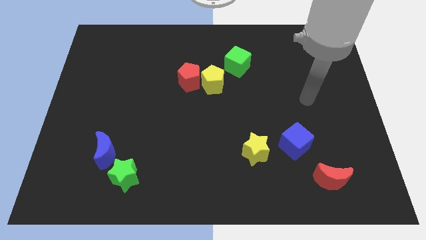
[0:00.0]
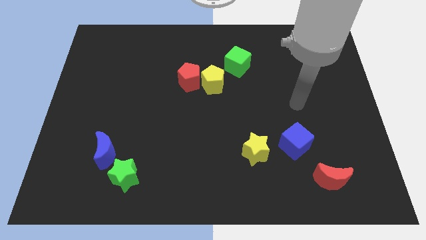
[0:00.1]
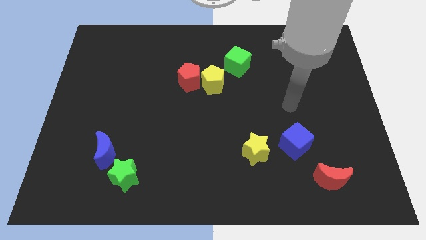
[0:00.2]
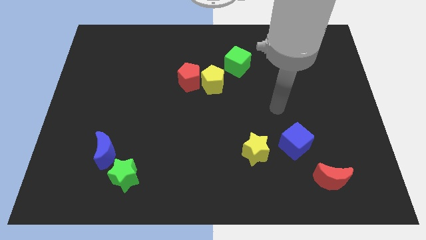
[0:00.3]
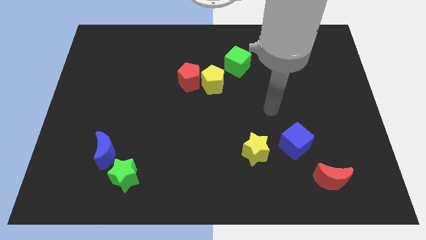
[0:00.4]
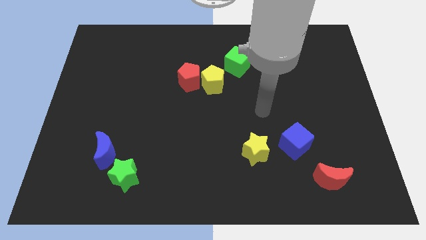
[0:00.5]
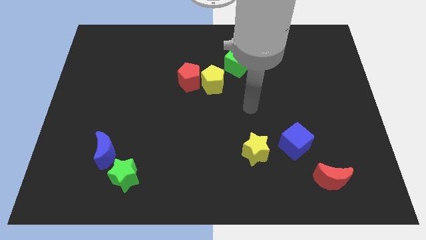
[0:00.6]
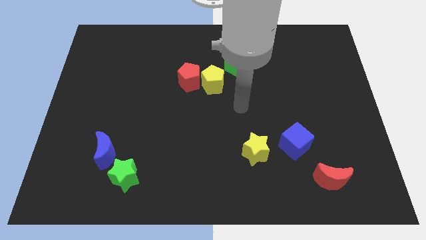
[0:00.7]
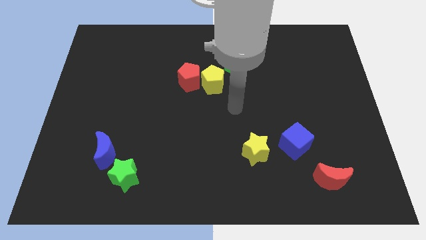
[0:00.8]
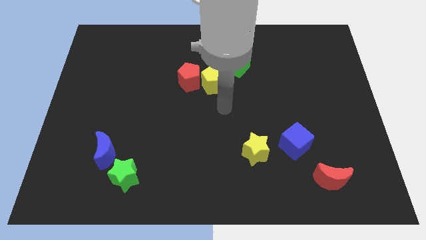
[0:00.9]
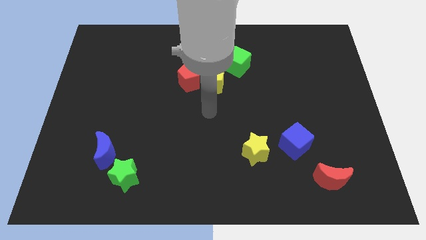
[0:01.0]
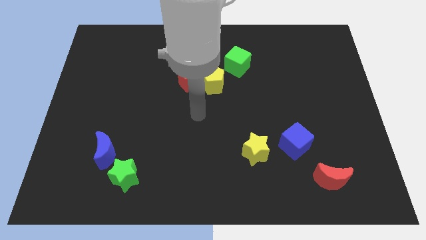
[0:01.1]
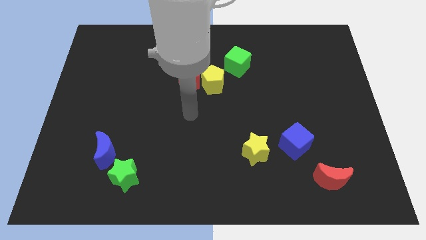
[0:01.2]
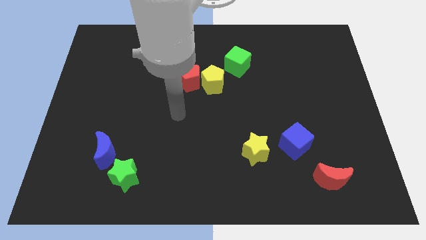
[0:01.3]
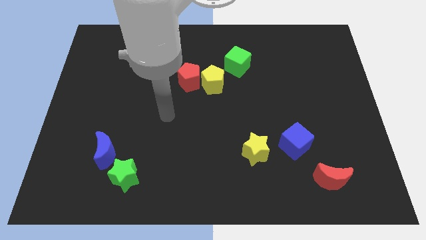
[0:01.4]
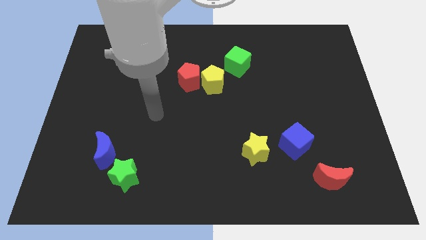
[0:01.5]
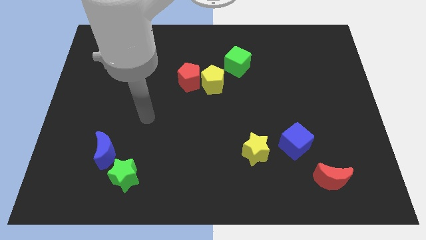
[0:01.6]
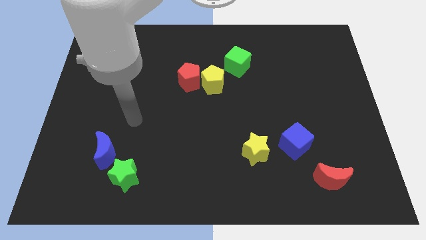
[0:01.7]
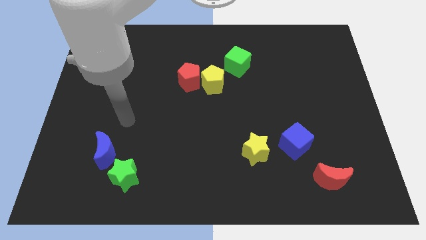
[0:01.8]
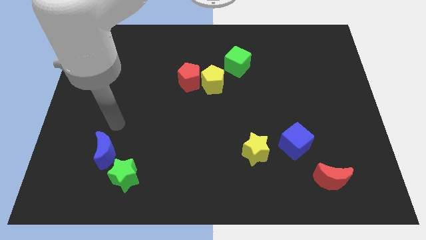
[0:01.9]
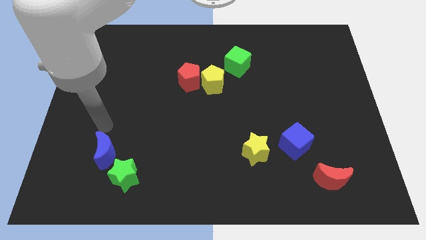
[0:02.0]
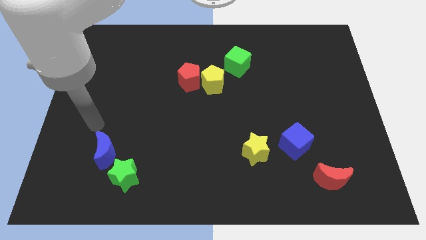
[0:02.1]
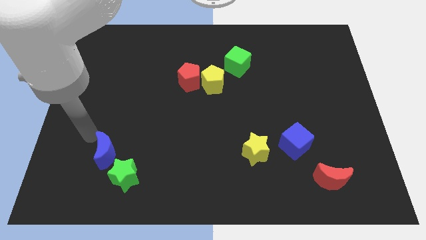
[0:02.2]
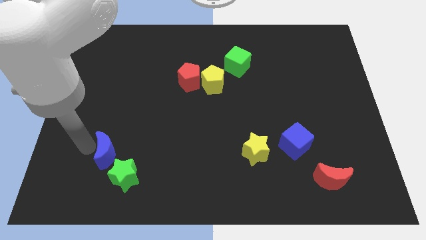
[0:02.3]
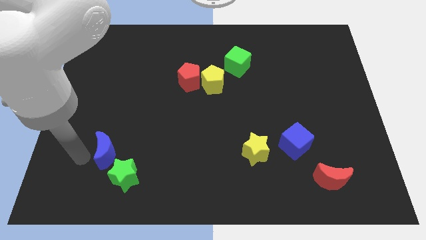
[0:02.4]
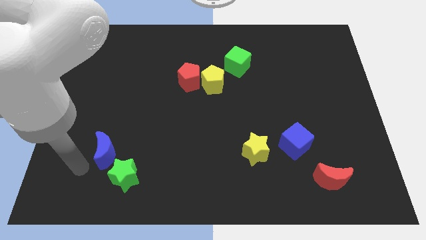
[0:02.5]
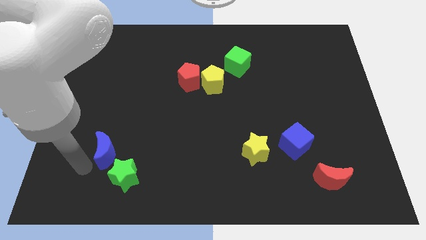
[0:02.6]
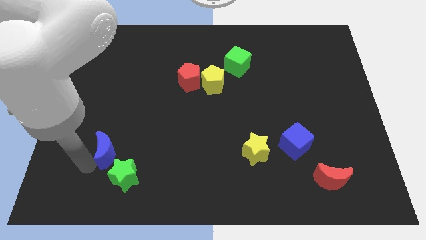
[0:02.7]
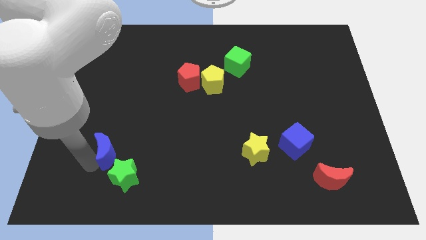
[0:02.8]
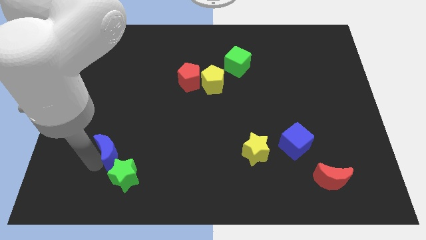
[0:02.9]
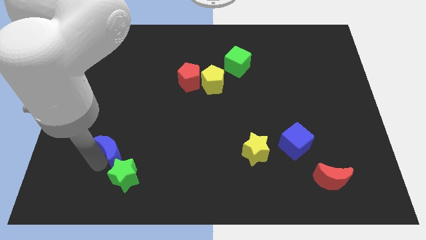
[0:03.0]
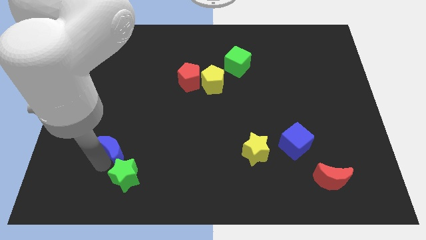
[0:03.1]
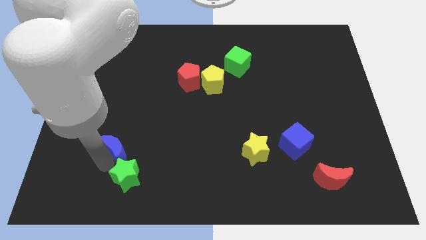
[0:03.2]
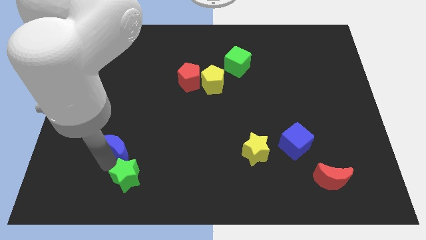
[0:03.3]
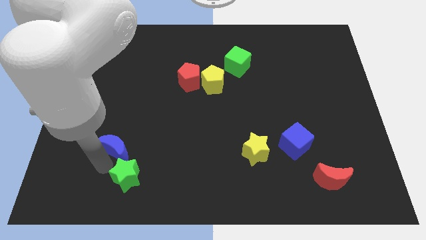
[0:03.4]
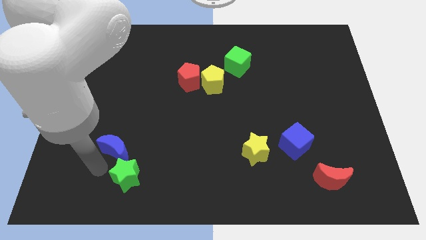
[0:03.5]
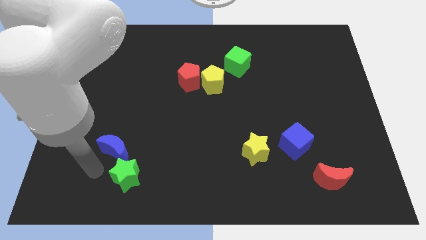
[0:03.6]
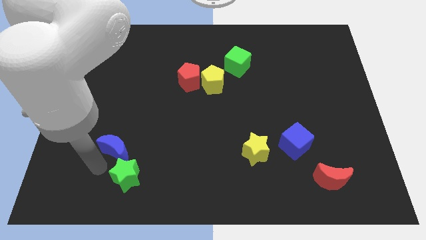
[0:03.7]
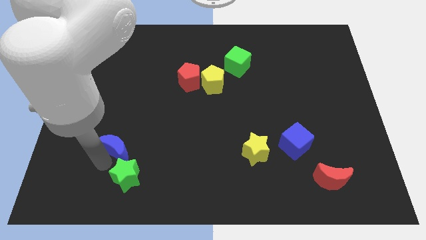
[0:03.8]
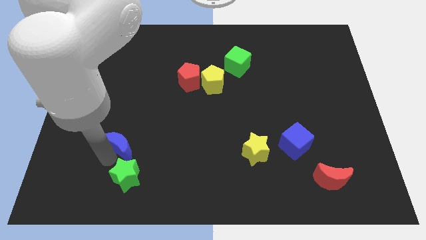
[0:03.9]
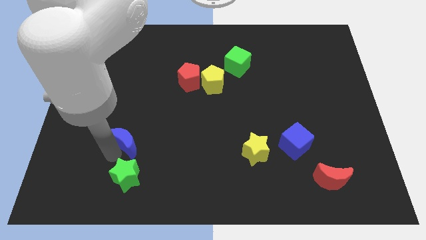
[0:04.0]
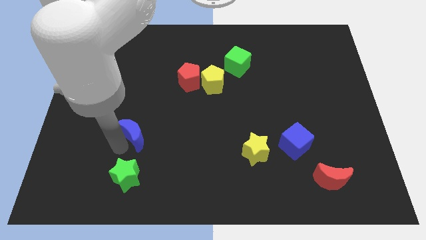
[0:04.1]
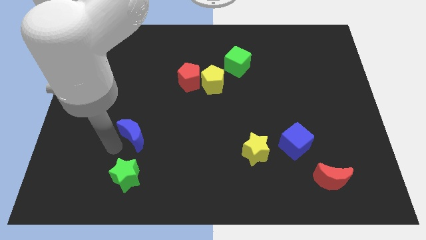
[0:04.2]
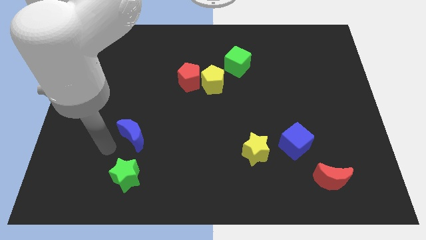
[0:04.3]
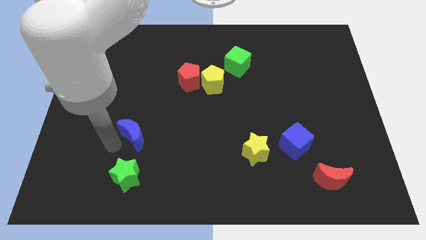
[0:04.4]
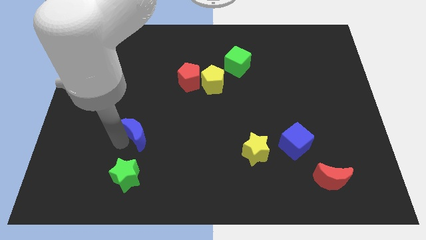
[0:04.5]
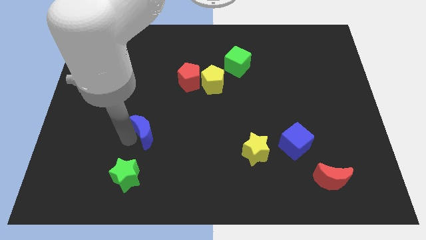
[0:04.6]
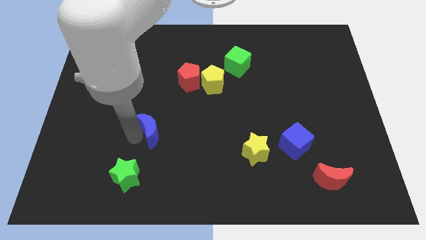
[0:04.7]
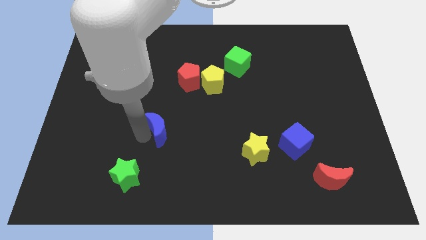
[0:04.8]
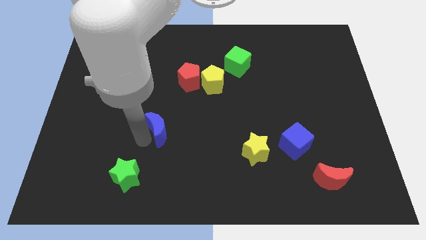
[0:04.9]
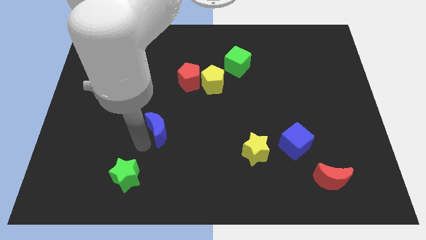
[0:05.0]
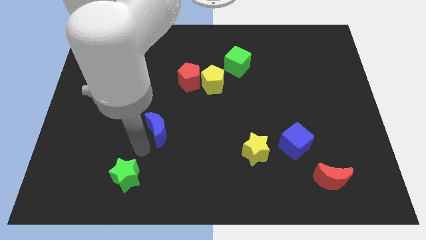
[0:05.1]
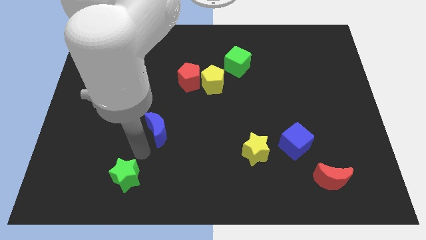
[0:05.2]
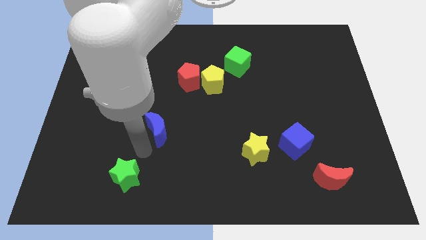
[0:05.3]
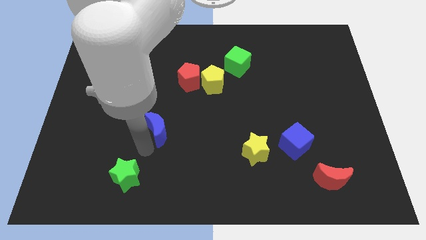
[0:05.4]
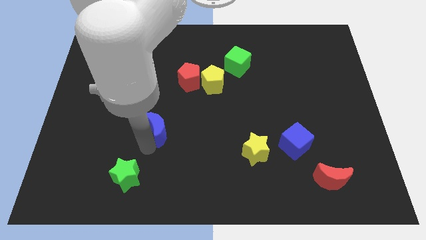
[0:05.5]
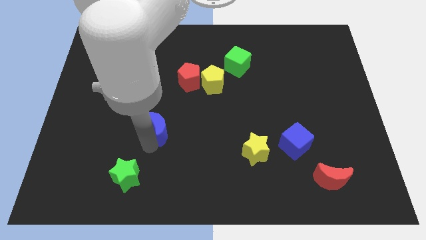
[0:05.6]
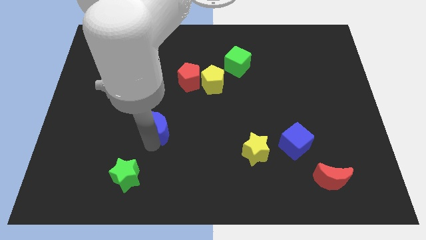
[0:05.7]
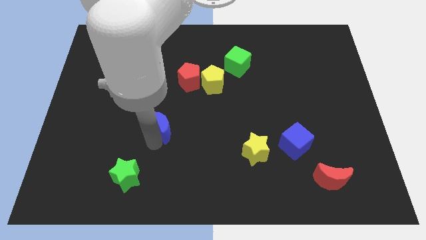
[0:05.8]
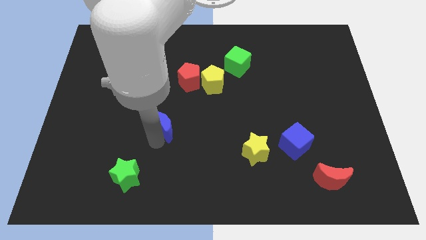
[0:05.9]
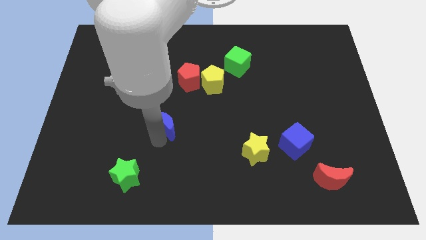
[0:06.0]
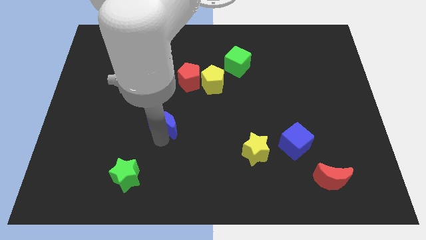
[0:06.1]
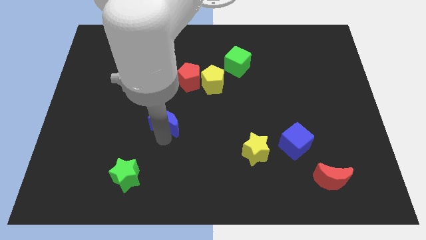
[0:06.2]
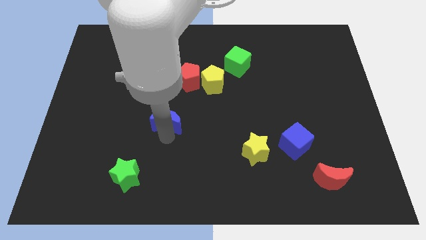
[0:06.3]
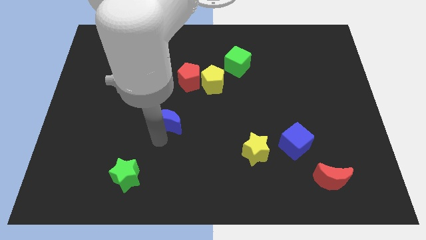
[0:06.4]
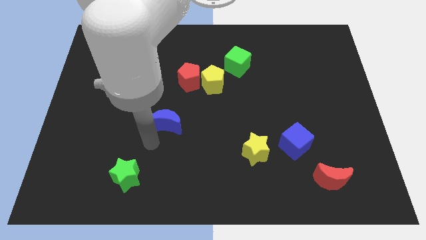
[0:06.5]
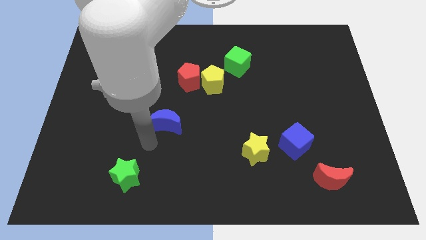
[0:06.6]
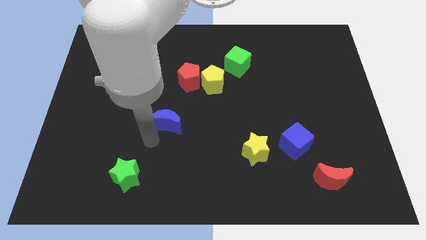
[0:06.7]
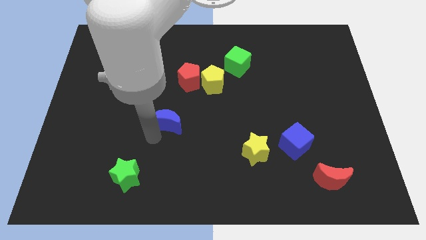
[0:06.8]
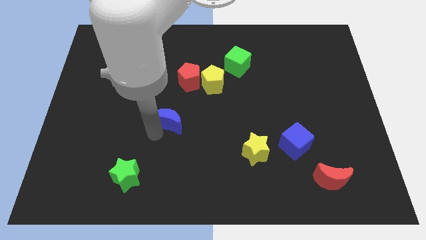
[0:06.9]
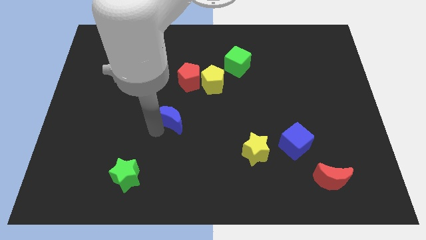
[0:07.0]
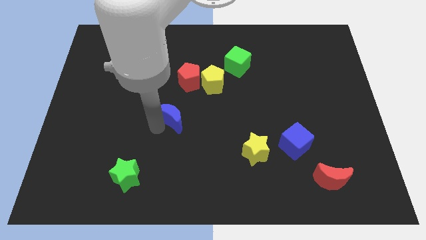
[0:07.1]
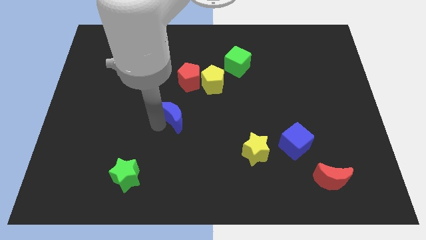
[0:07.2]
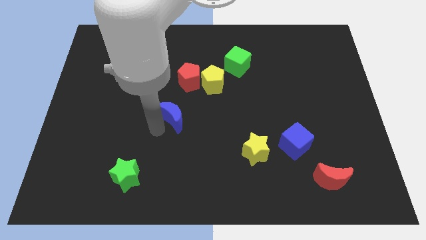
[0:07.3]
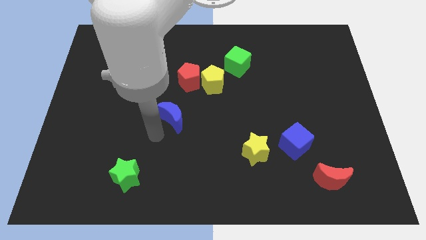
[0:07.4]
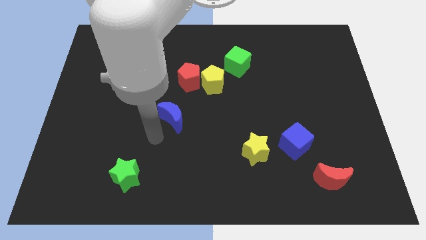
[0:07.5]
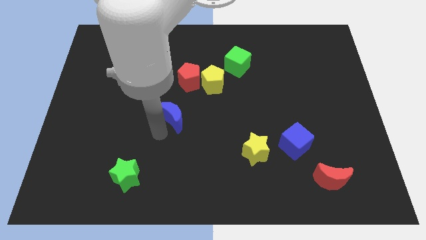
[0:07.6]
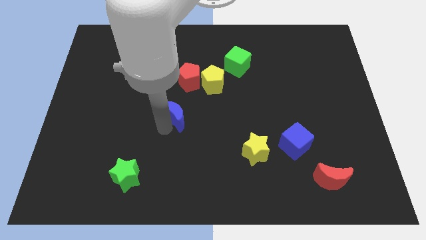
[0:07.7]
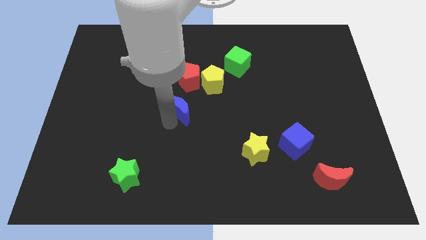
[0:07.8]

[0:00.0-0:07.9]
put the blue moon diagonally down and to the left of the yellow pentagon
